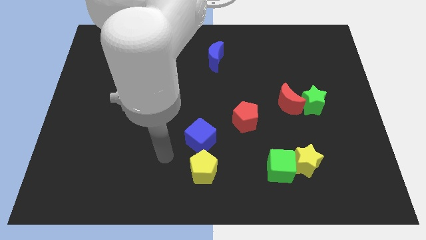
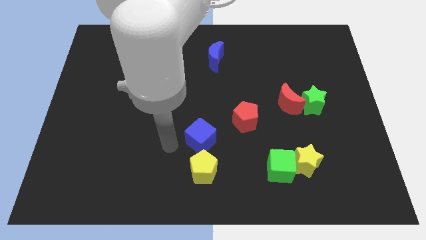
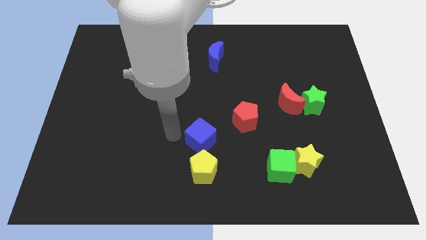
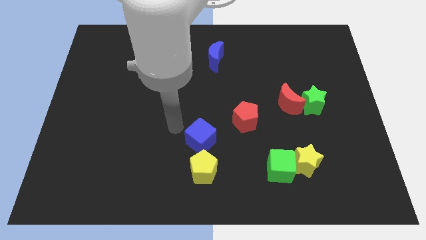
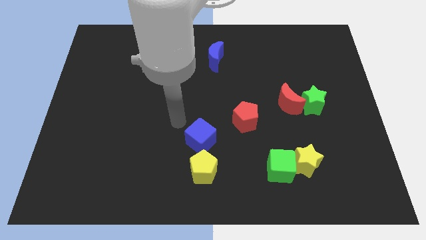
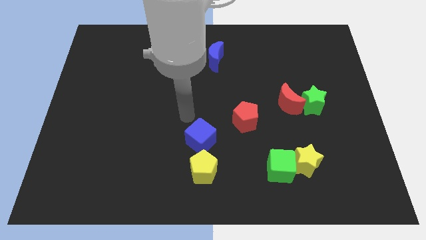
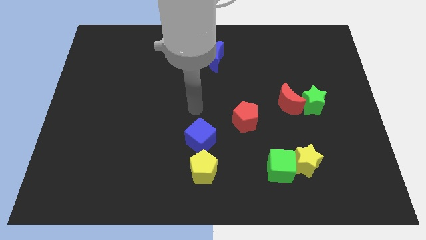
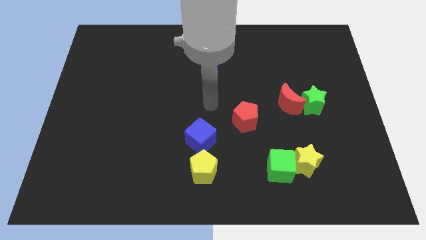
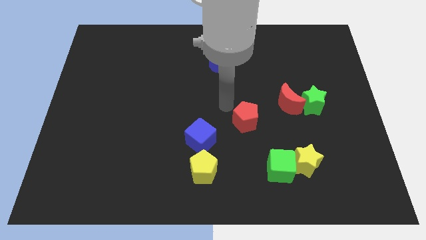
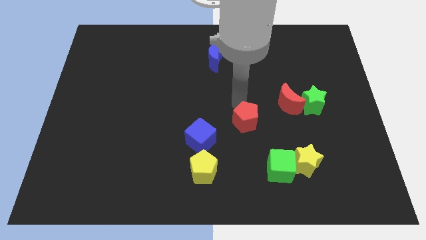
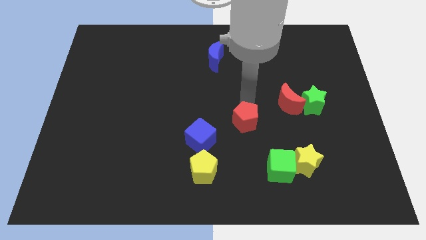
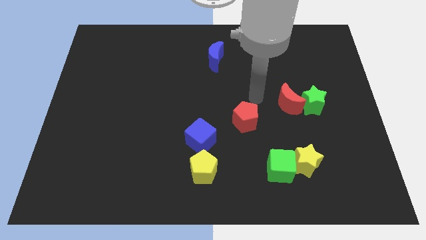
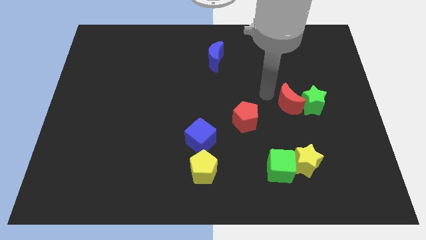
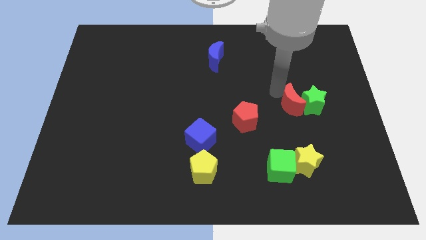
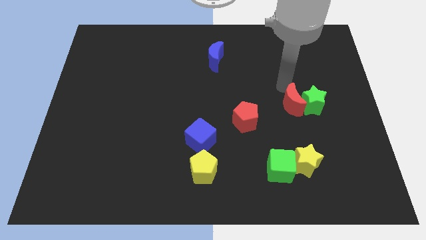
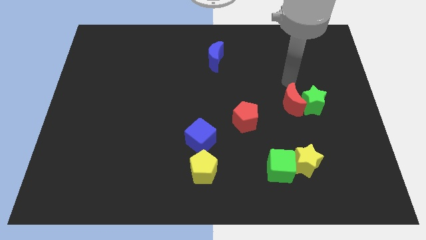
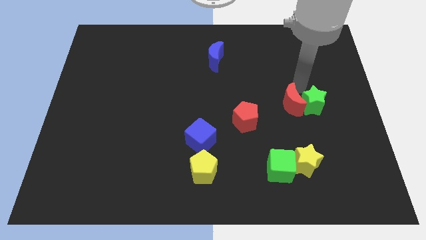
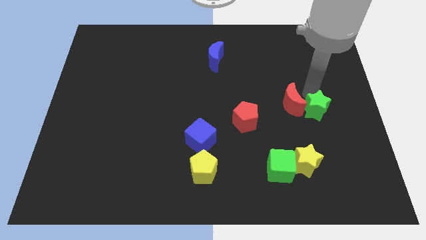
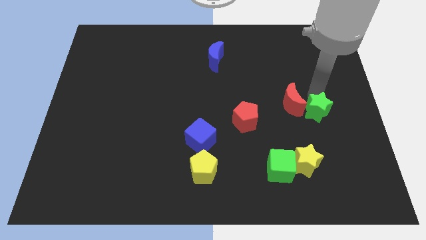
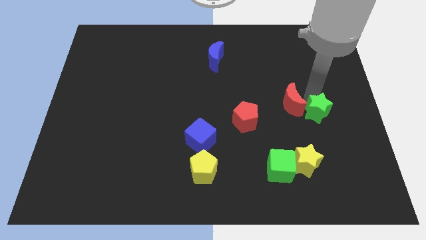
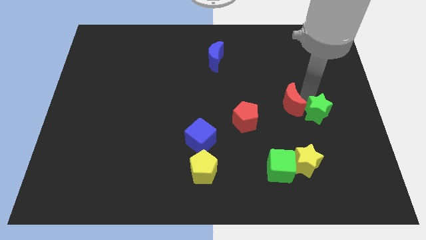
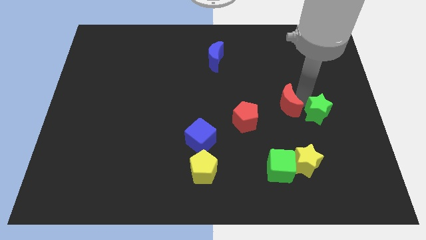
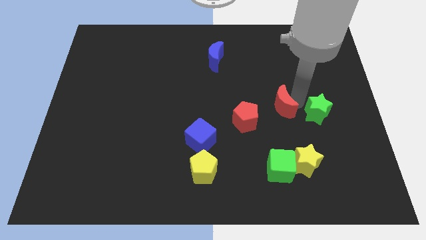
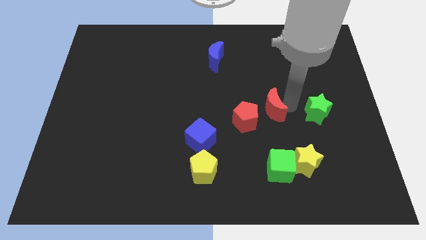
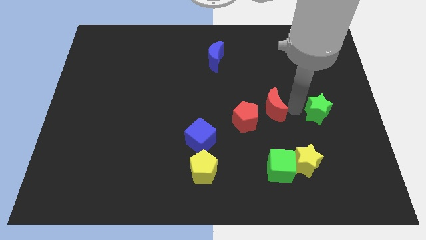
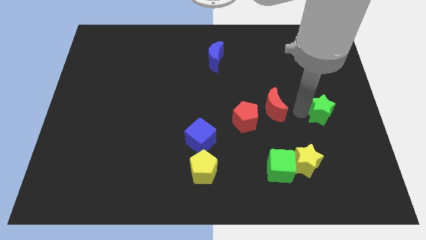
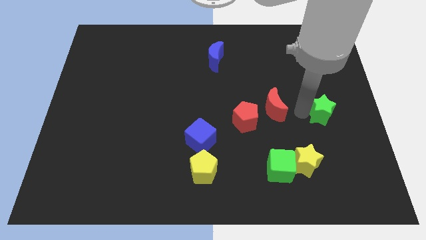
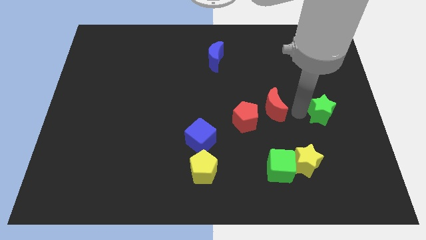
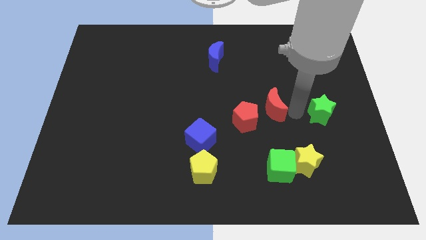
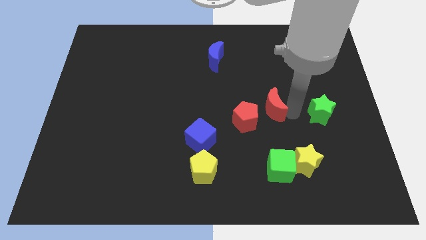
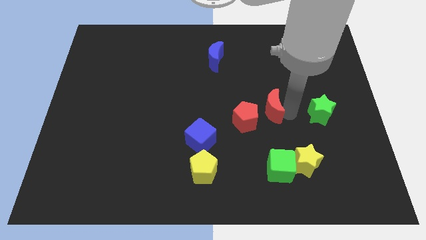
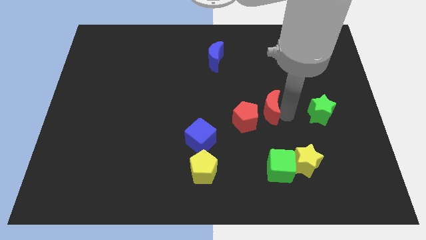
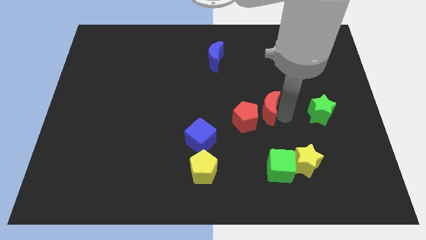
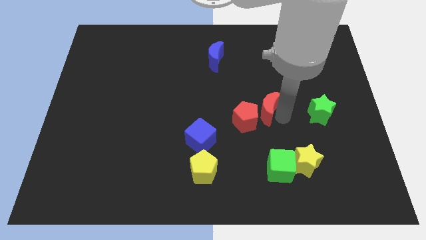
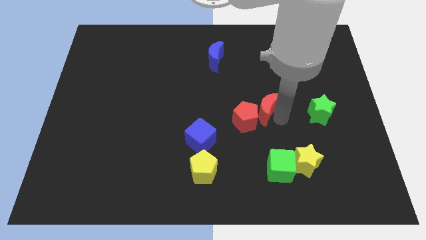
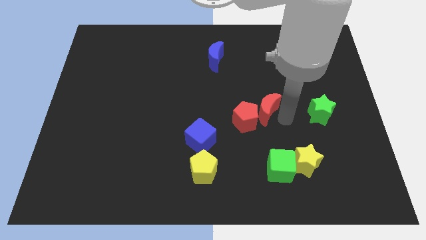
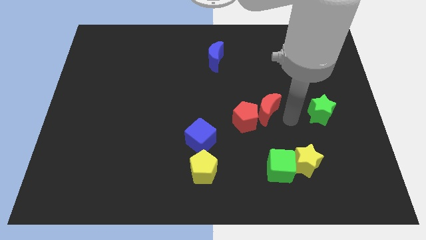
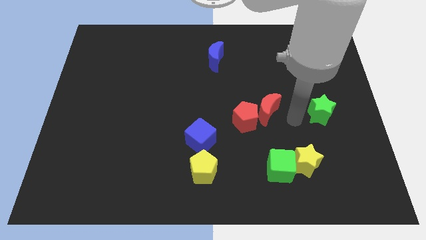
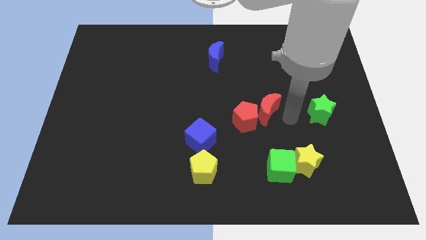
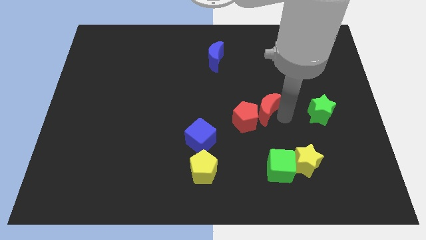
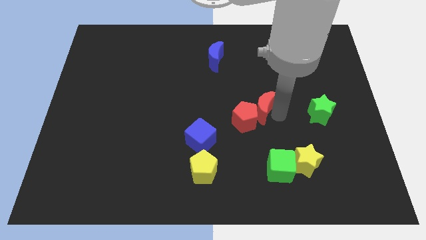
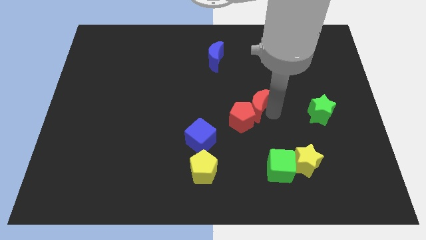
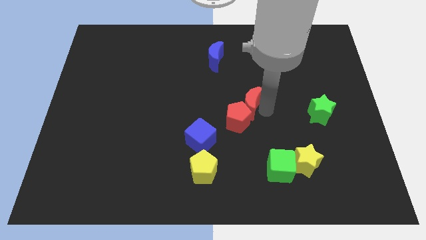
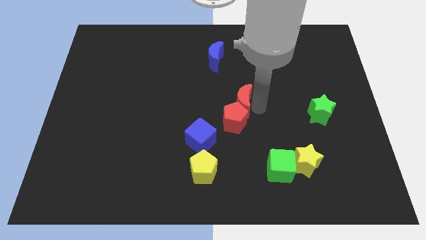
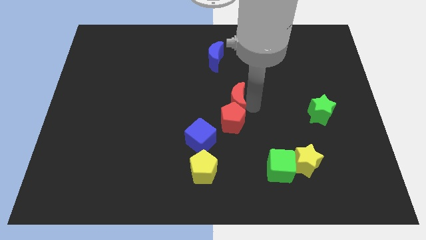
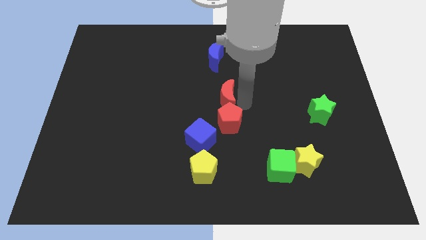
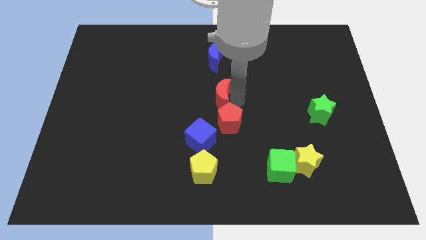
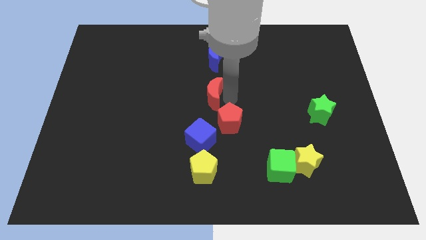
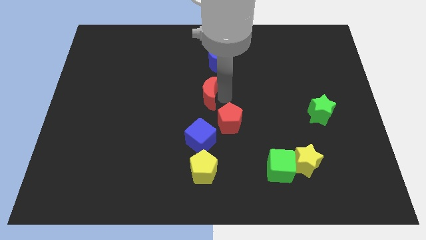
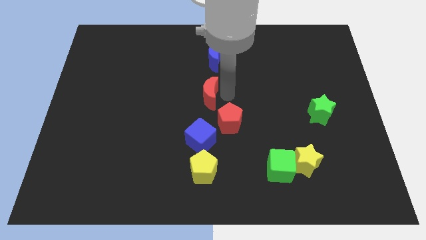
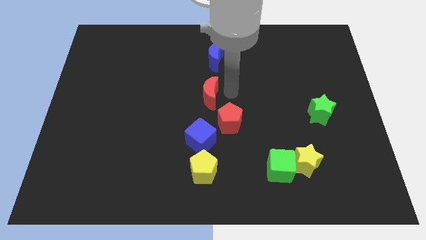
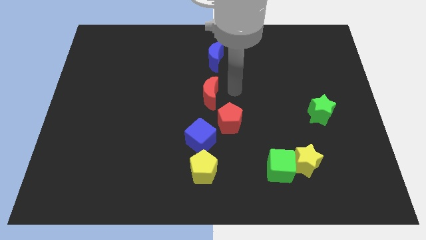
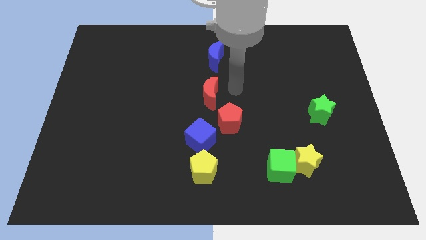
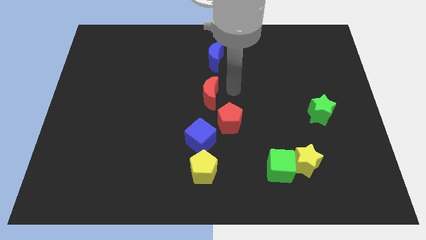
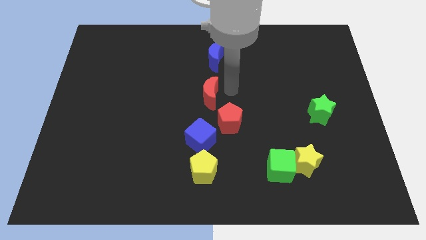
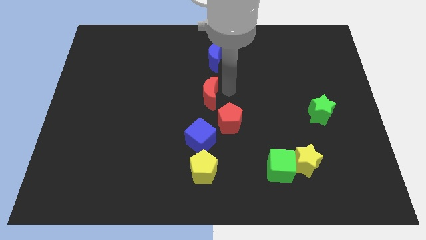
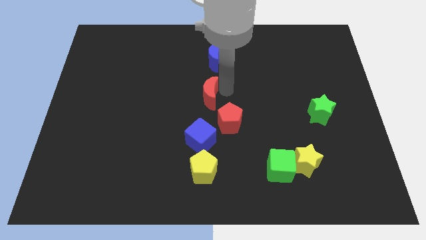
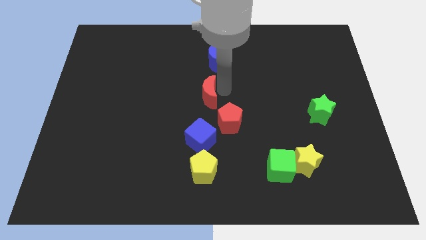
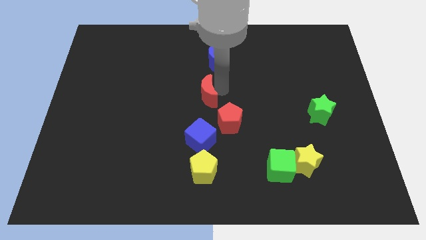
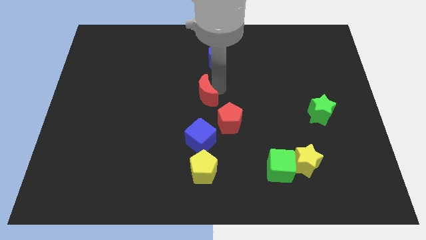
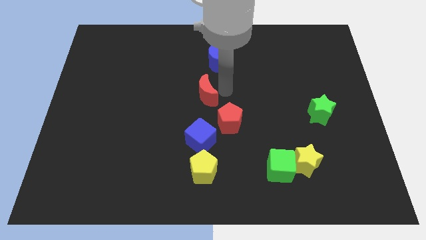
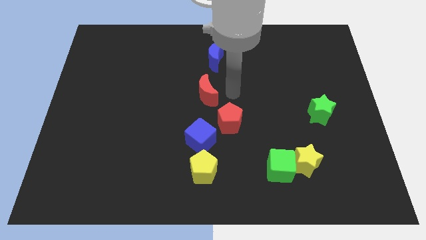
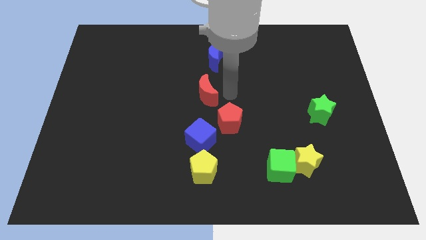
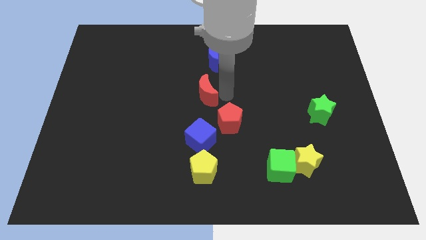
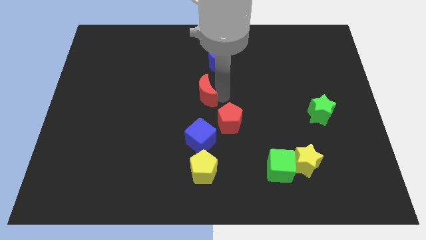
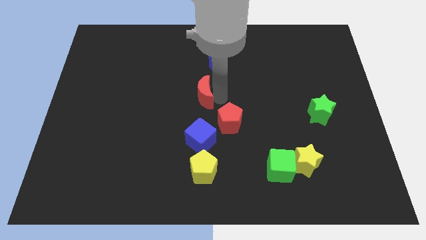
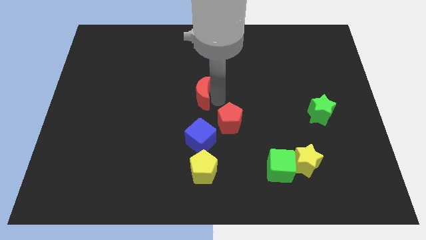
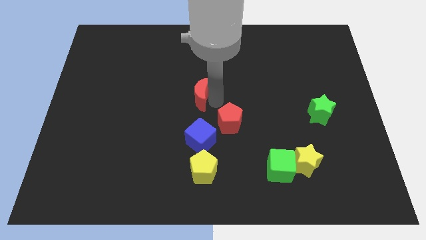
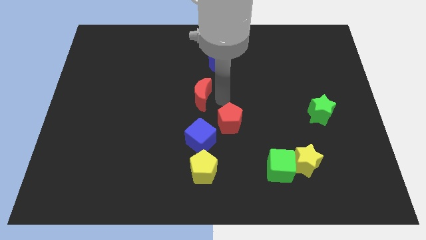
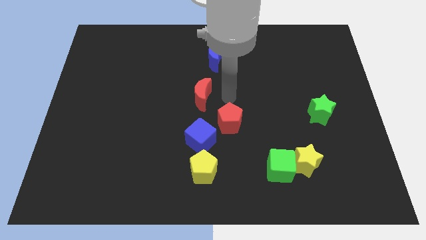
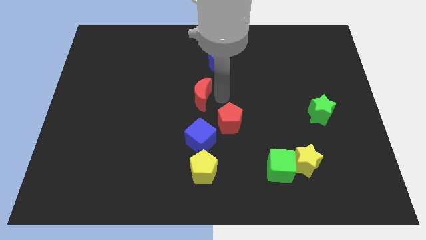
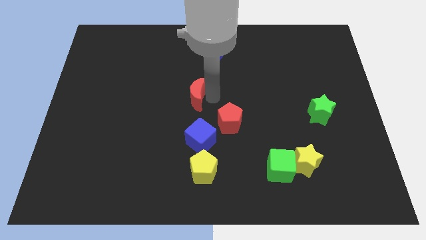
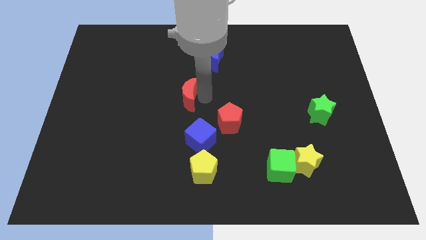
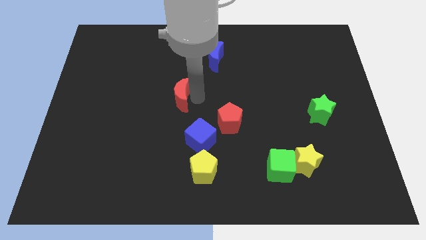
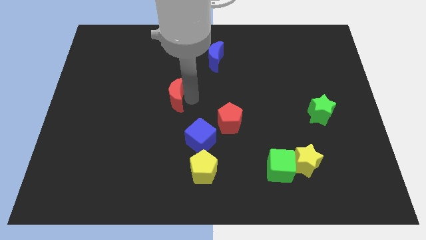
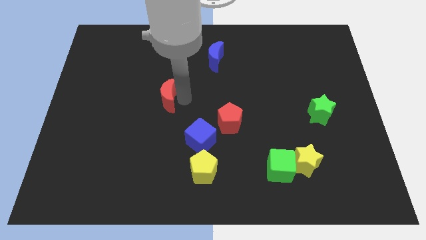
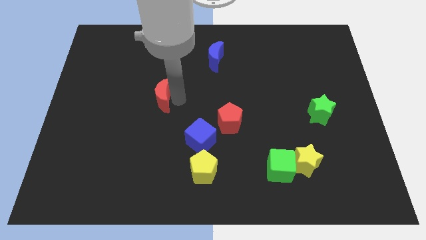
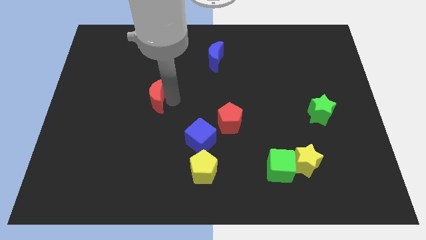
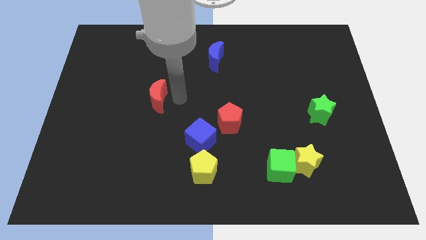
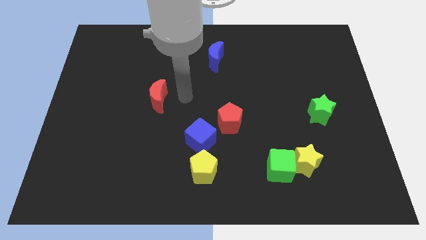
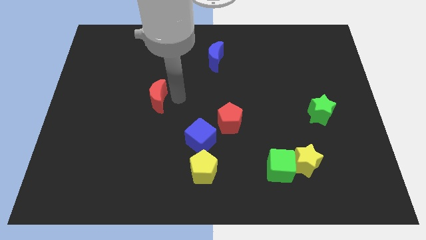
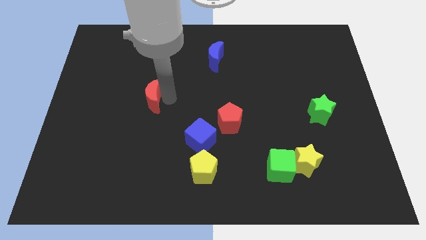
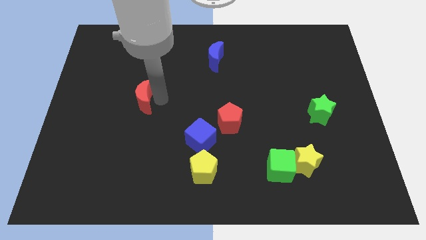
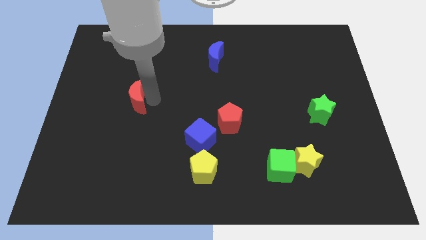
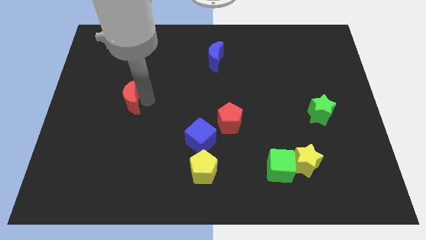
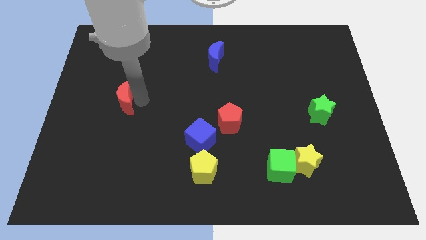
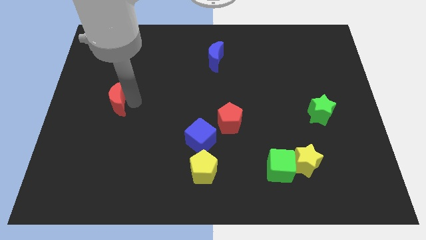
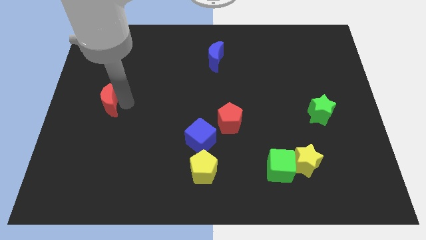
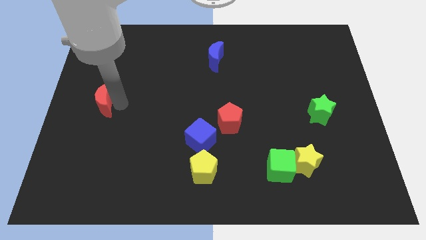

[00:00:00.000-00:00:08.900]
push the red moon to the left side of the board
